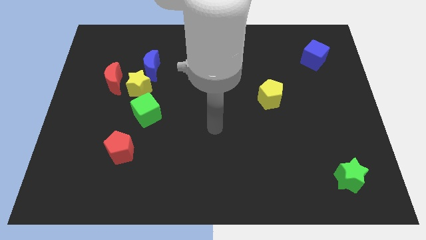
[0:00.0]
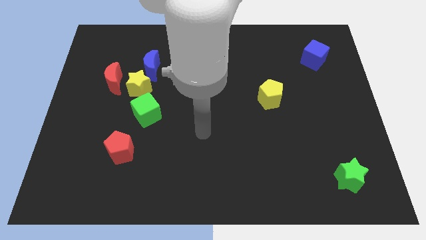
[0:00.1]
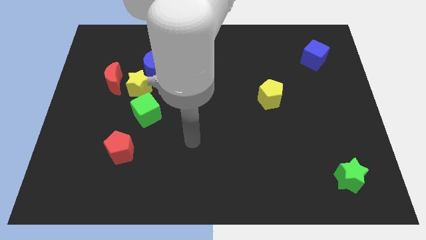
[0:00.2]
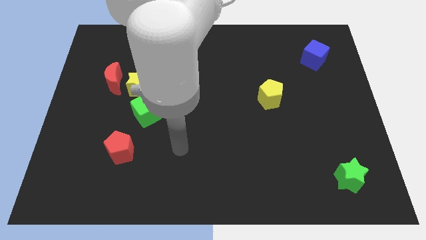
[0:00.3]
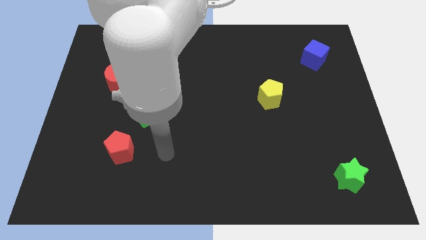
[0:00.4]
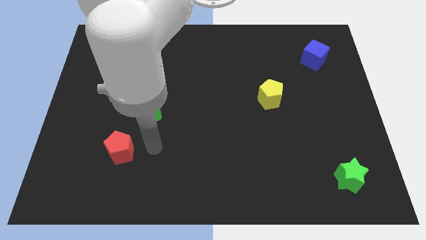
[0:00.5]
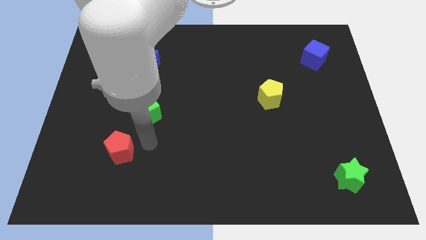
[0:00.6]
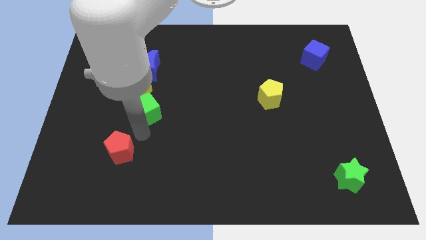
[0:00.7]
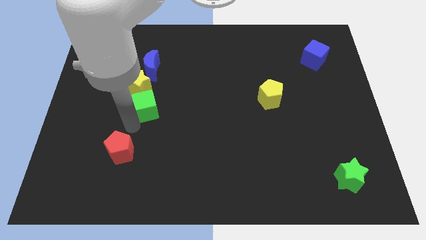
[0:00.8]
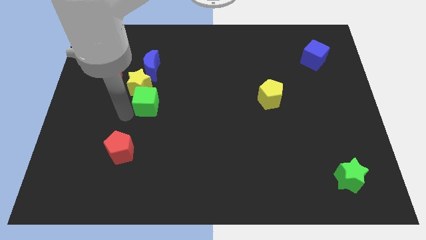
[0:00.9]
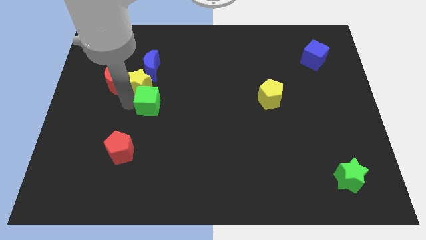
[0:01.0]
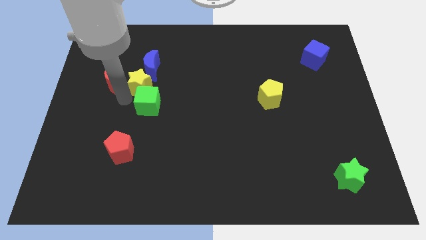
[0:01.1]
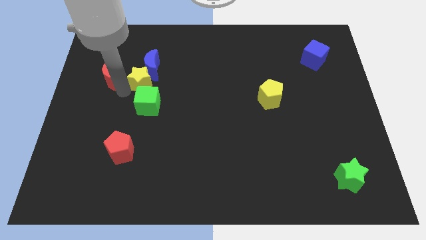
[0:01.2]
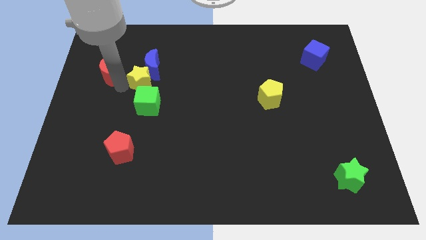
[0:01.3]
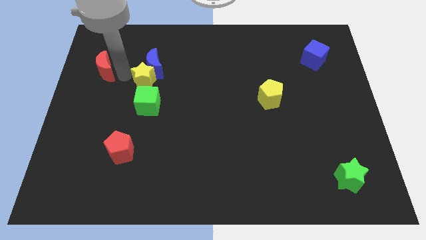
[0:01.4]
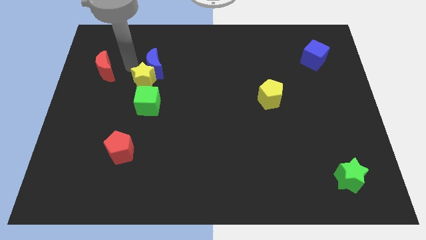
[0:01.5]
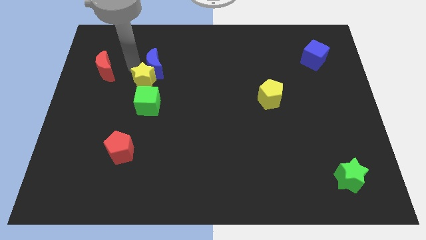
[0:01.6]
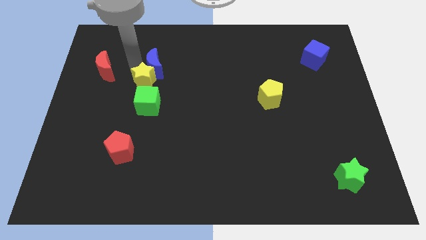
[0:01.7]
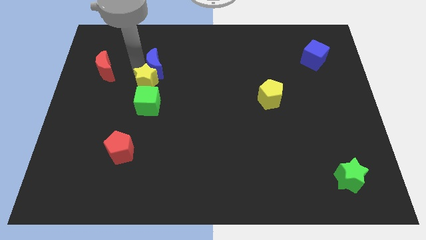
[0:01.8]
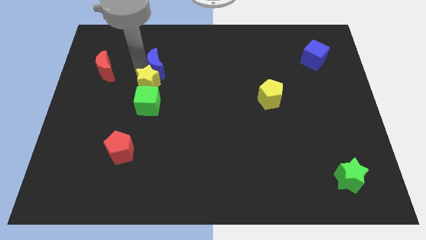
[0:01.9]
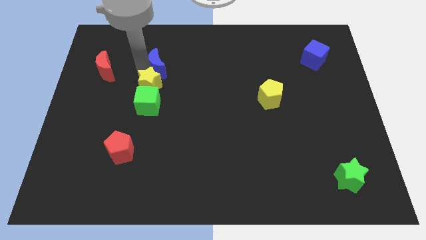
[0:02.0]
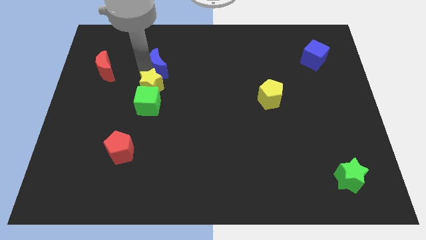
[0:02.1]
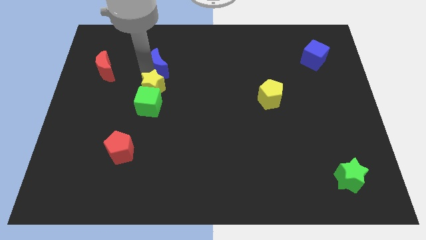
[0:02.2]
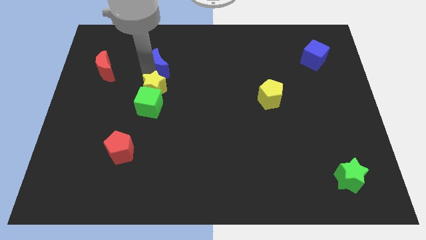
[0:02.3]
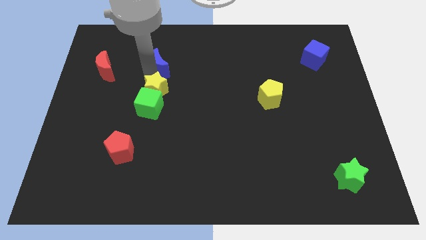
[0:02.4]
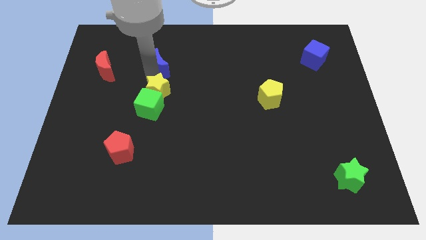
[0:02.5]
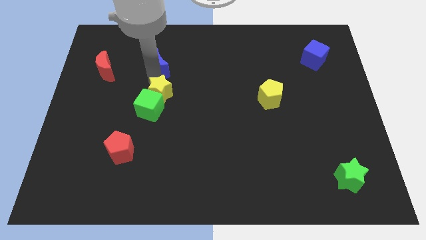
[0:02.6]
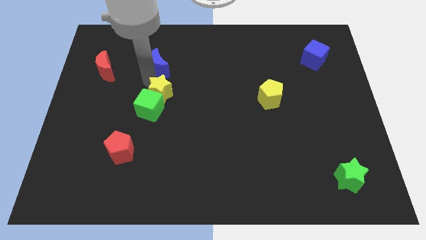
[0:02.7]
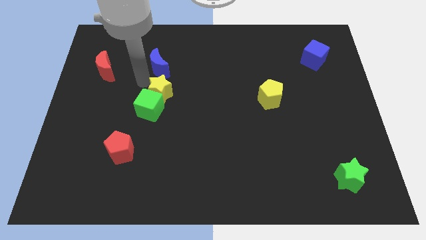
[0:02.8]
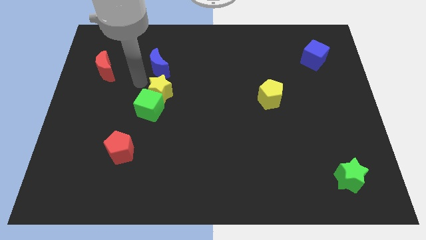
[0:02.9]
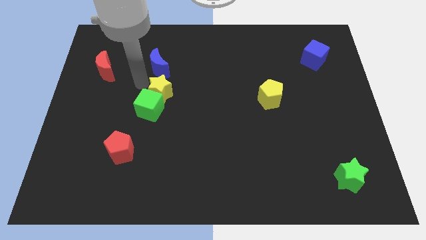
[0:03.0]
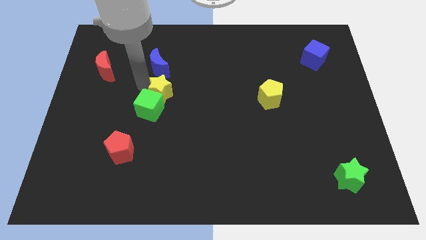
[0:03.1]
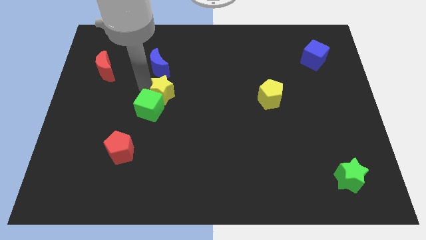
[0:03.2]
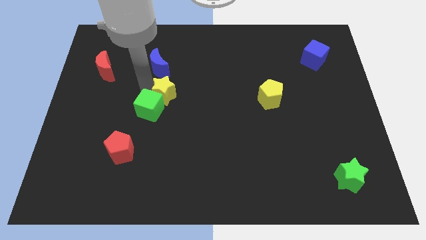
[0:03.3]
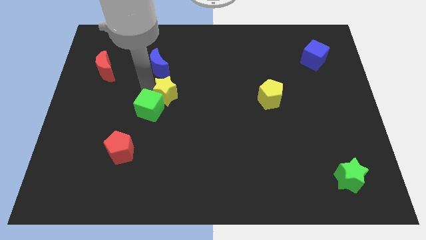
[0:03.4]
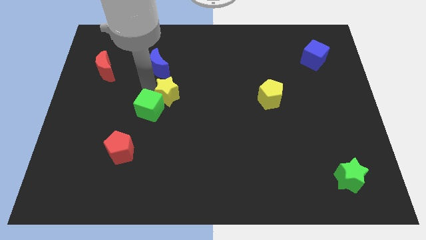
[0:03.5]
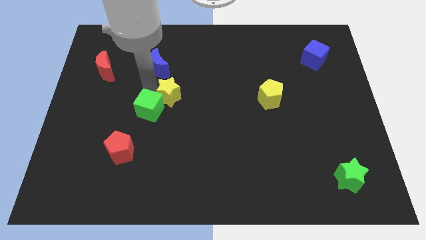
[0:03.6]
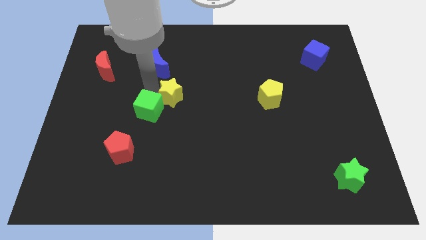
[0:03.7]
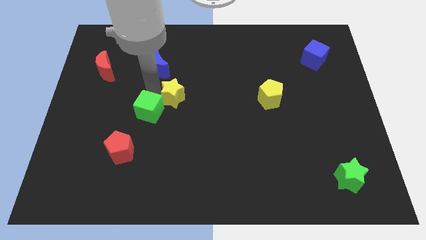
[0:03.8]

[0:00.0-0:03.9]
separate the yellow star from the group

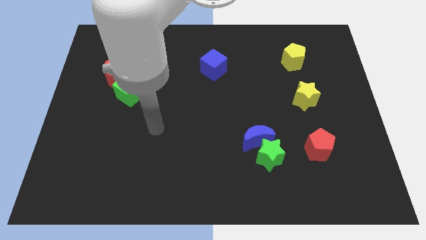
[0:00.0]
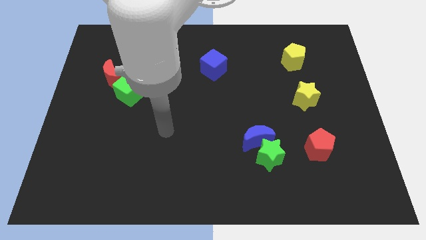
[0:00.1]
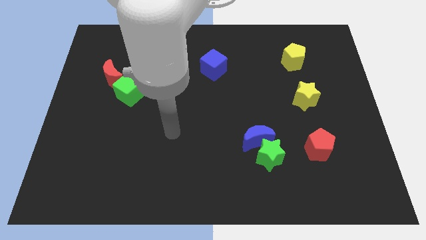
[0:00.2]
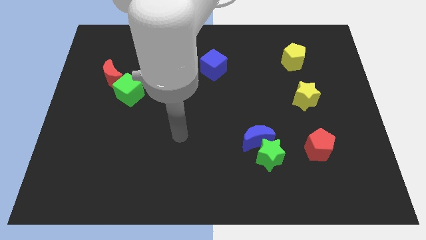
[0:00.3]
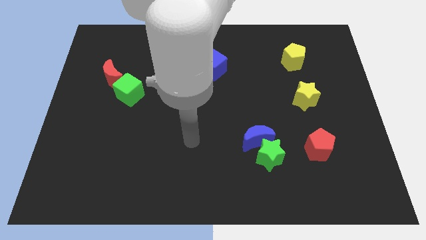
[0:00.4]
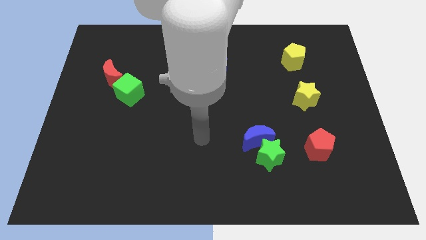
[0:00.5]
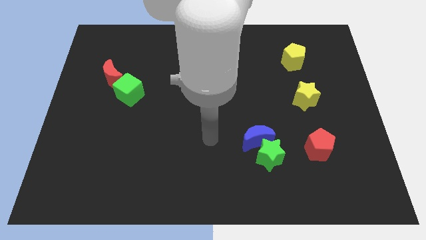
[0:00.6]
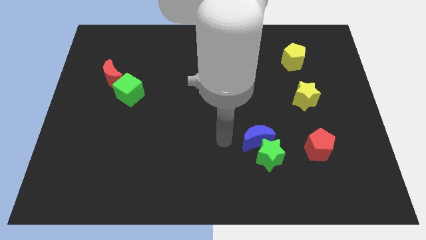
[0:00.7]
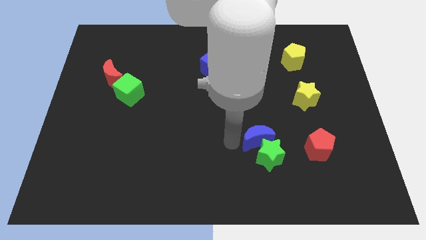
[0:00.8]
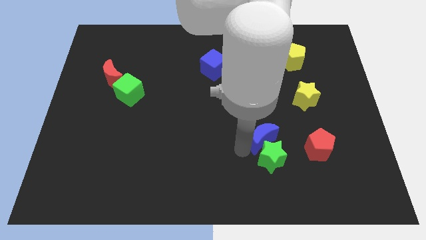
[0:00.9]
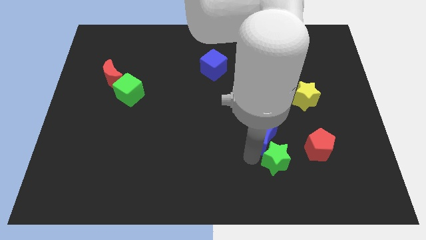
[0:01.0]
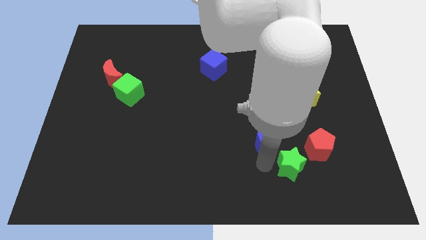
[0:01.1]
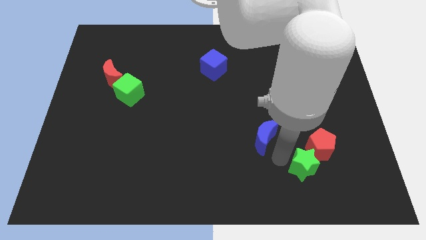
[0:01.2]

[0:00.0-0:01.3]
move the blue moon away from the green star

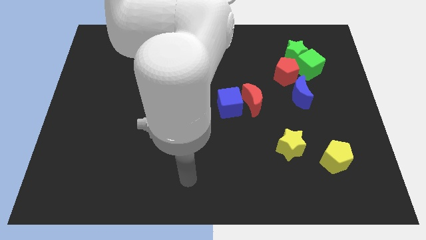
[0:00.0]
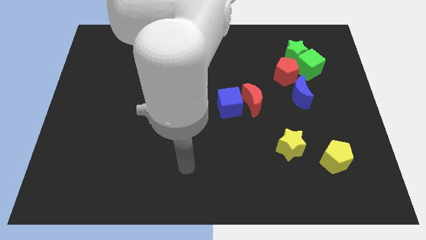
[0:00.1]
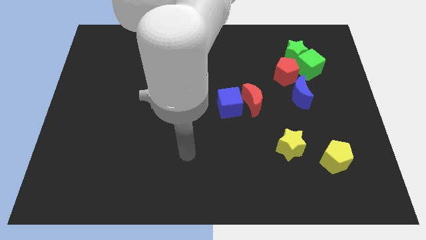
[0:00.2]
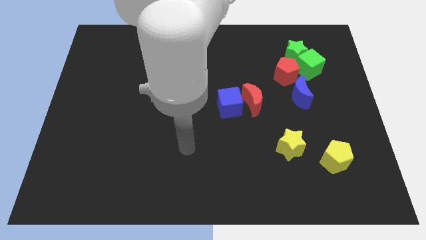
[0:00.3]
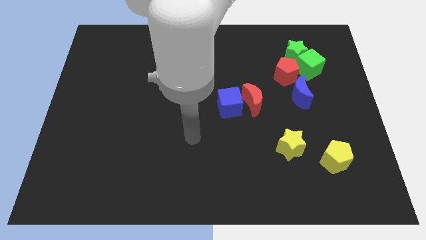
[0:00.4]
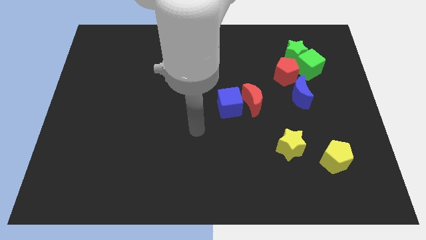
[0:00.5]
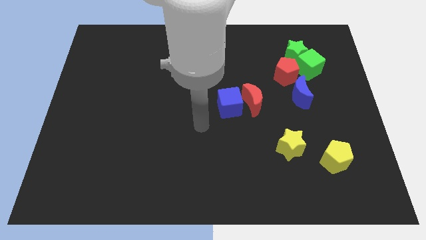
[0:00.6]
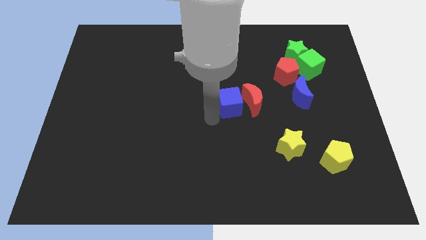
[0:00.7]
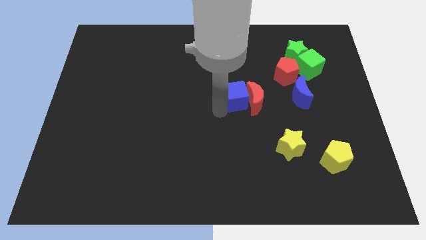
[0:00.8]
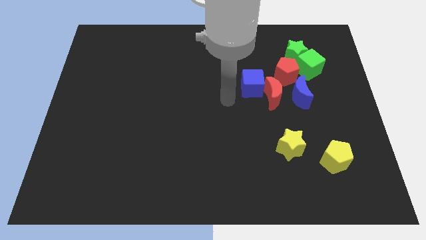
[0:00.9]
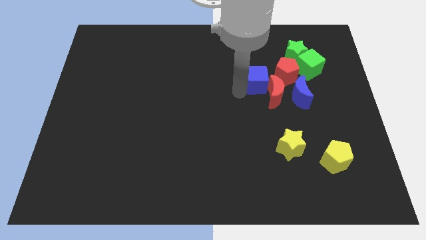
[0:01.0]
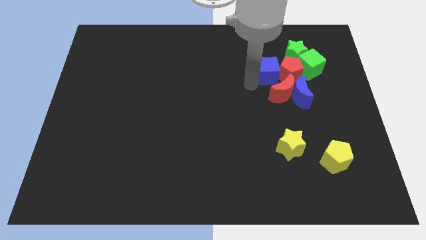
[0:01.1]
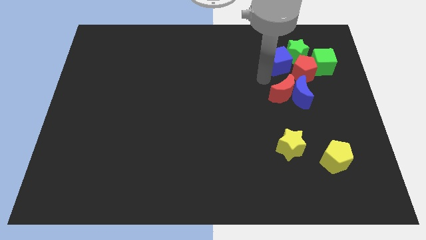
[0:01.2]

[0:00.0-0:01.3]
move the red moon away from the blue cube

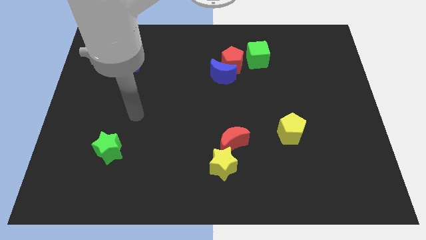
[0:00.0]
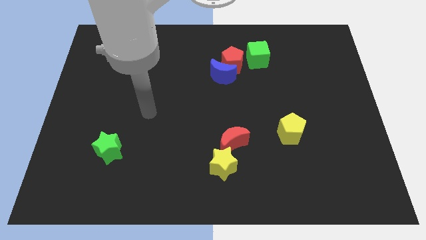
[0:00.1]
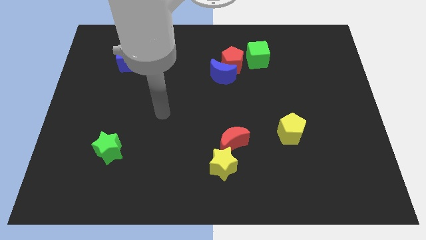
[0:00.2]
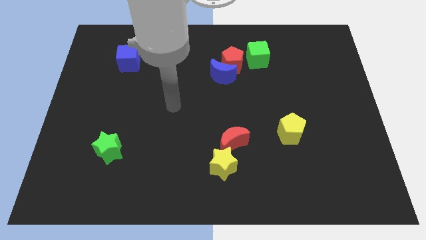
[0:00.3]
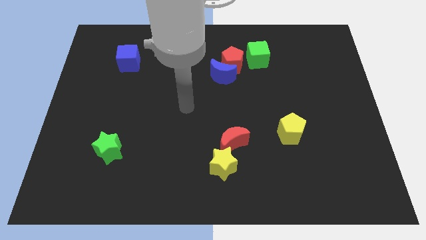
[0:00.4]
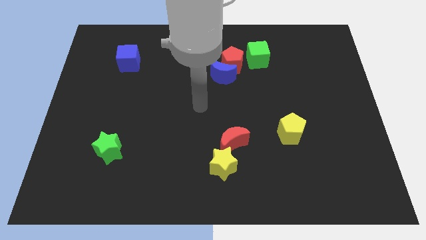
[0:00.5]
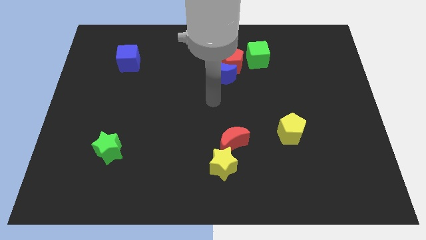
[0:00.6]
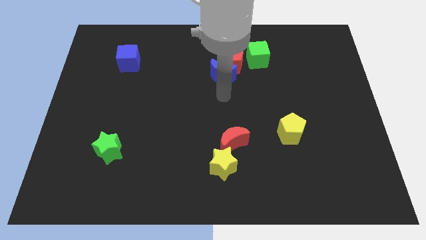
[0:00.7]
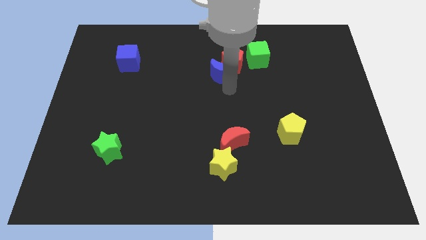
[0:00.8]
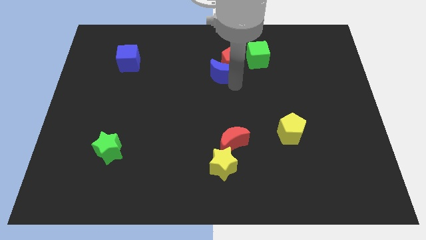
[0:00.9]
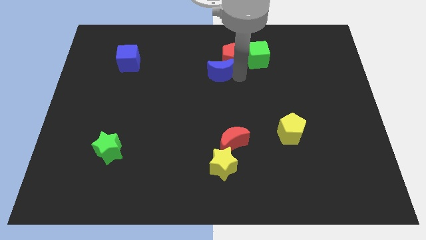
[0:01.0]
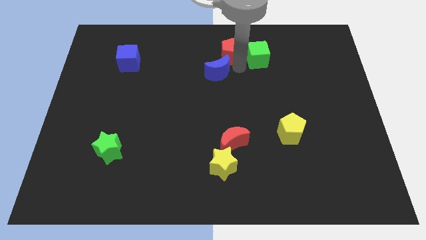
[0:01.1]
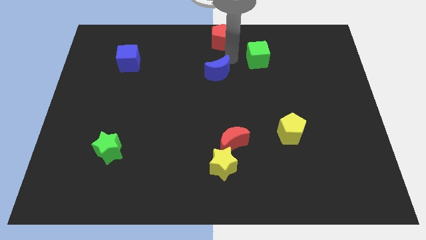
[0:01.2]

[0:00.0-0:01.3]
separate the blue moon from the red pentagon

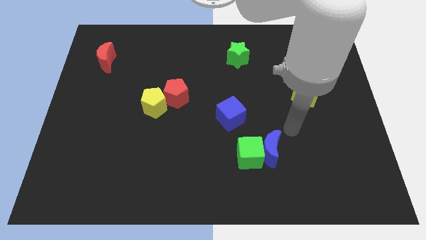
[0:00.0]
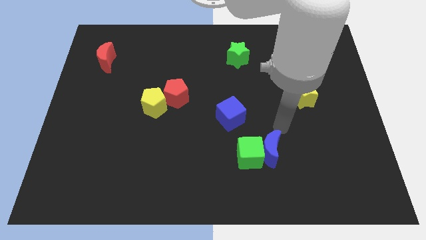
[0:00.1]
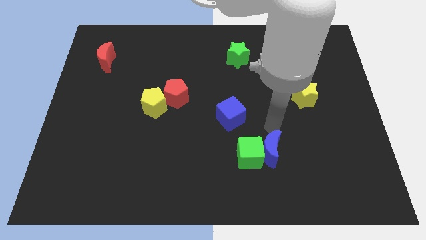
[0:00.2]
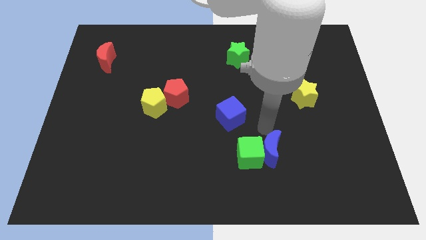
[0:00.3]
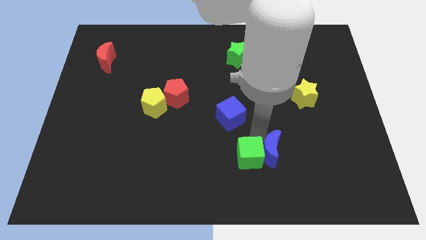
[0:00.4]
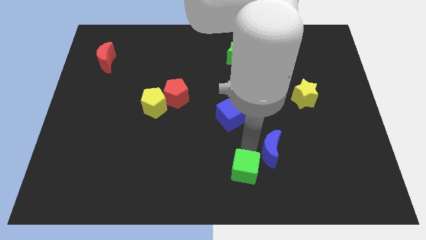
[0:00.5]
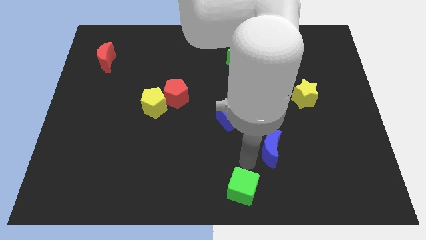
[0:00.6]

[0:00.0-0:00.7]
pull the blue moon apart from the green cube

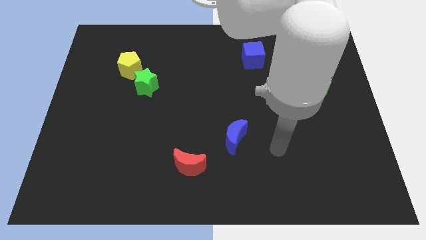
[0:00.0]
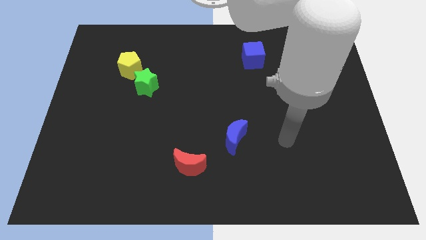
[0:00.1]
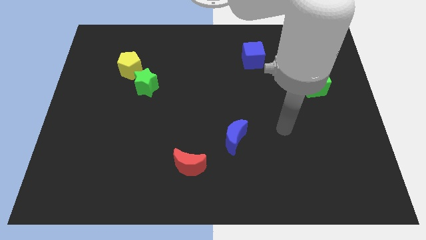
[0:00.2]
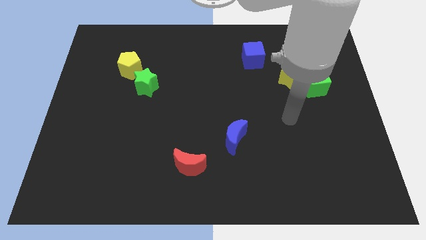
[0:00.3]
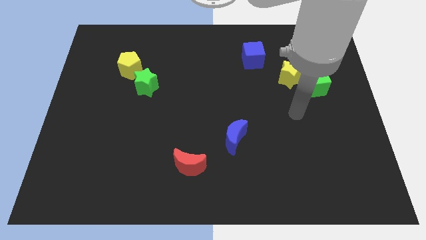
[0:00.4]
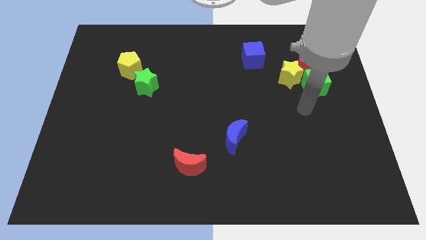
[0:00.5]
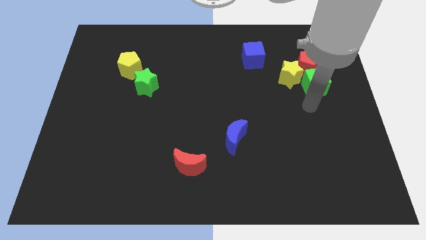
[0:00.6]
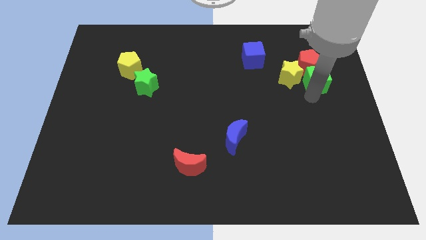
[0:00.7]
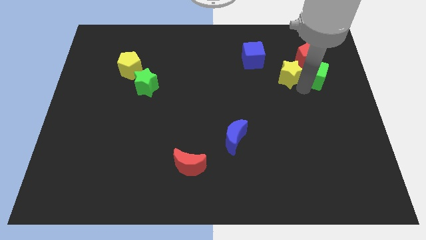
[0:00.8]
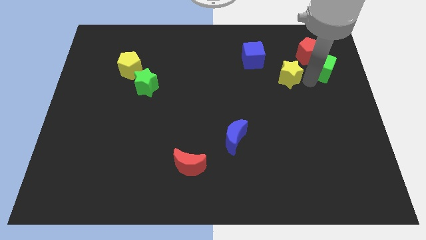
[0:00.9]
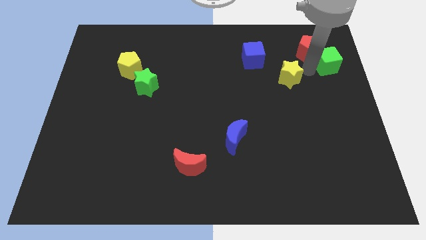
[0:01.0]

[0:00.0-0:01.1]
move the yellow star away from the red pentagon and green cube
